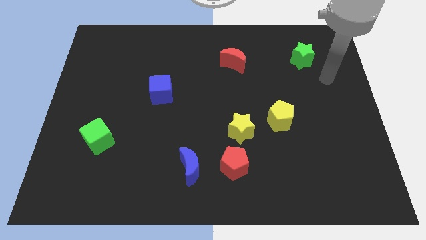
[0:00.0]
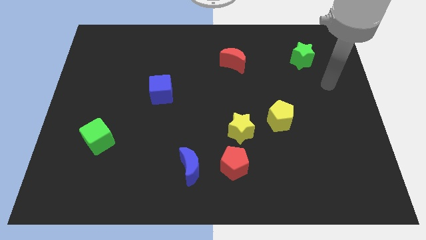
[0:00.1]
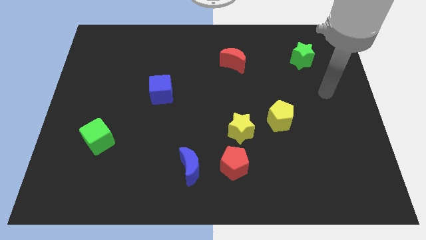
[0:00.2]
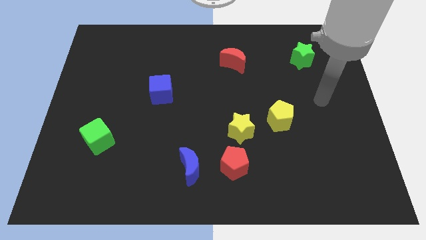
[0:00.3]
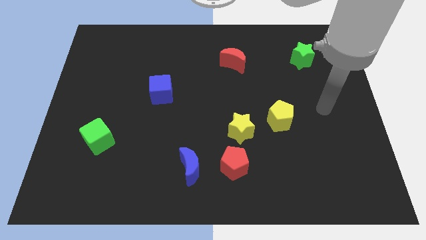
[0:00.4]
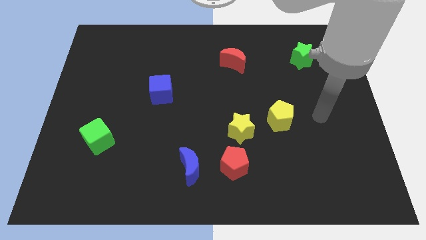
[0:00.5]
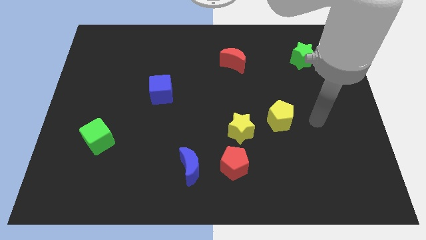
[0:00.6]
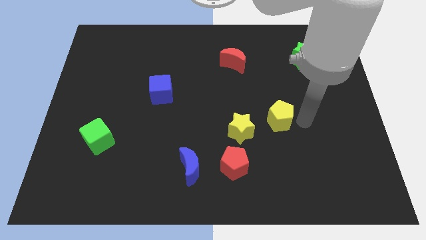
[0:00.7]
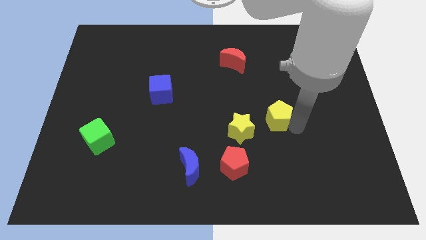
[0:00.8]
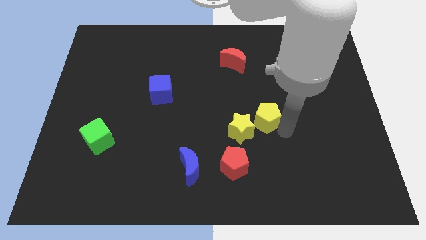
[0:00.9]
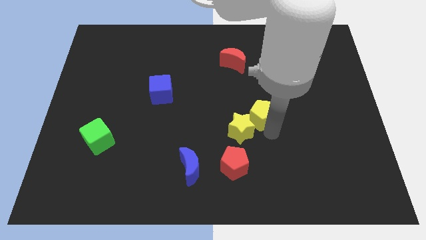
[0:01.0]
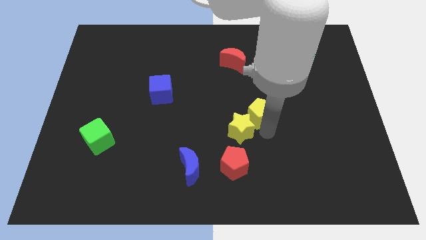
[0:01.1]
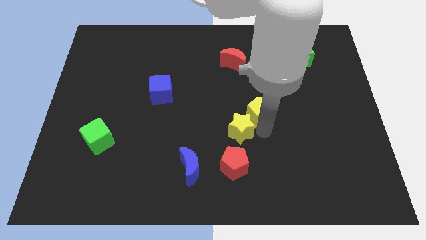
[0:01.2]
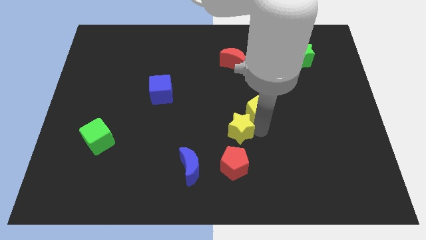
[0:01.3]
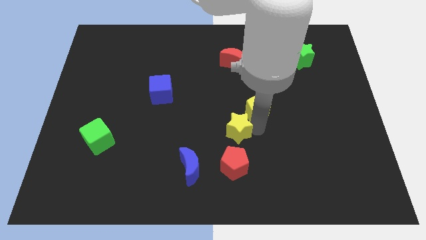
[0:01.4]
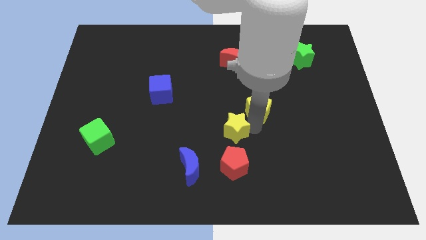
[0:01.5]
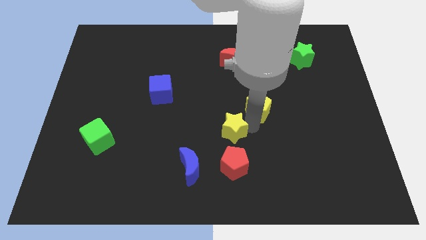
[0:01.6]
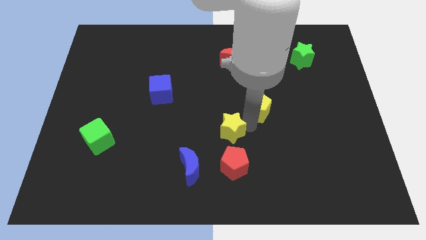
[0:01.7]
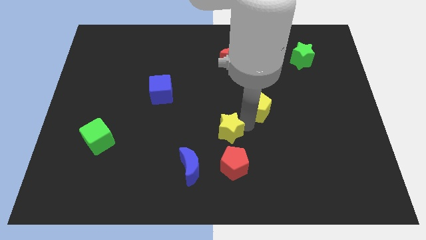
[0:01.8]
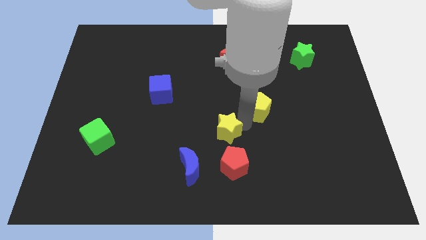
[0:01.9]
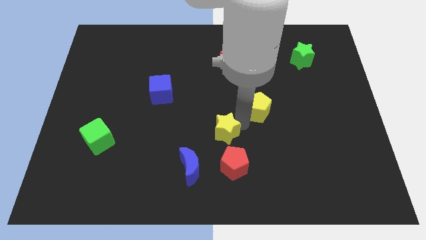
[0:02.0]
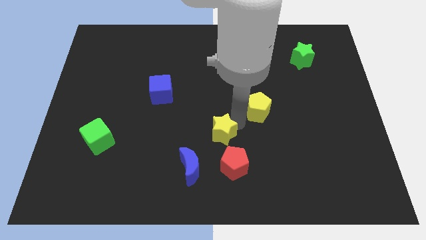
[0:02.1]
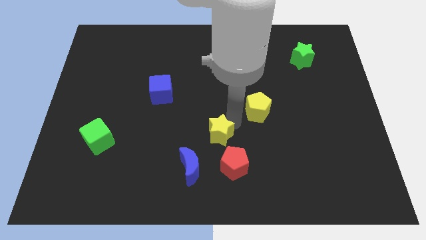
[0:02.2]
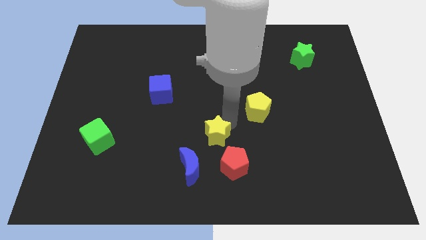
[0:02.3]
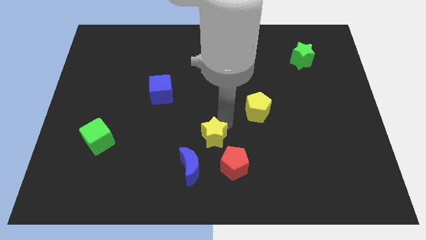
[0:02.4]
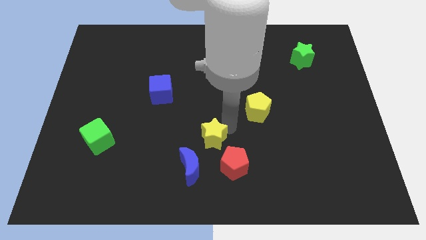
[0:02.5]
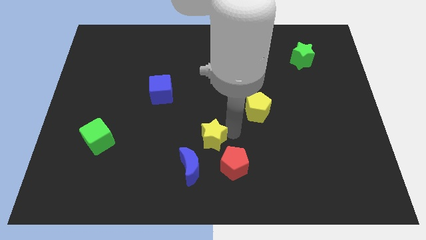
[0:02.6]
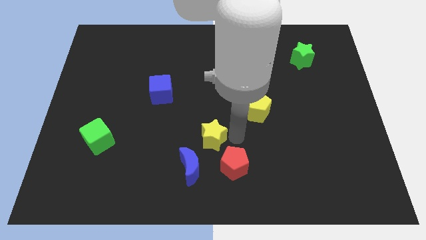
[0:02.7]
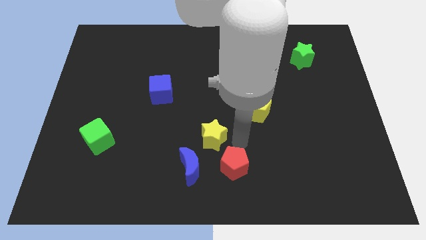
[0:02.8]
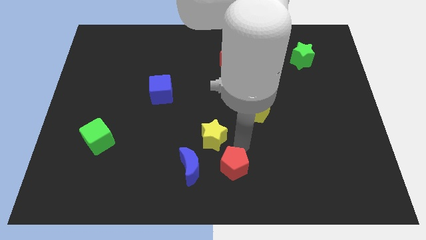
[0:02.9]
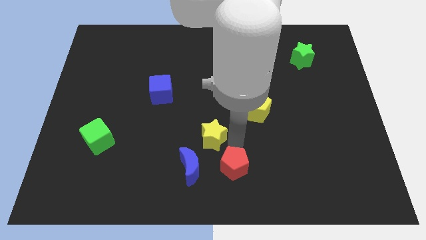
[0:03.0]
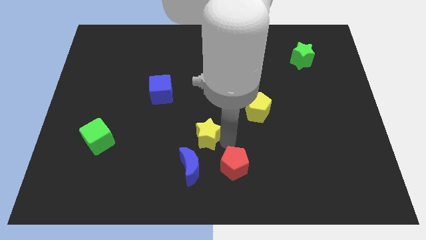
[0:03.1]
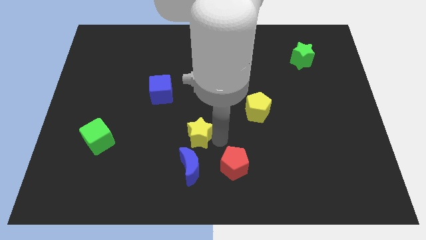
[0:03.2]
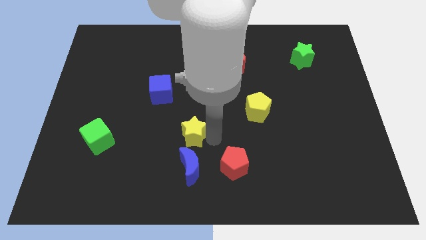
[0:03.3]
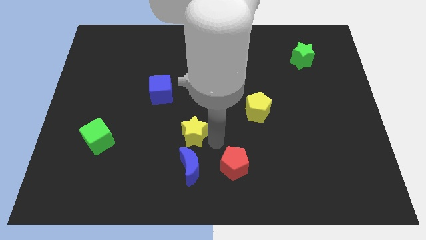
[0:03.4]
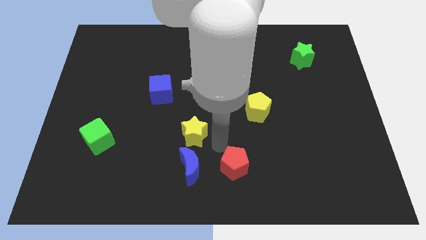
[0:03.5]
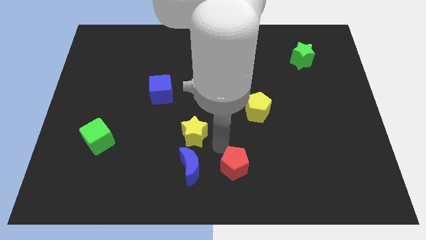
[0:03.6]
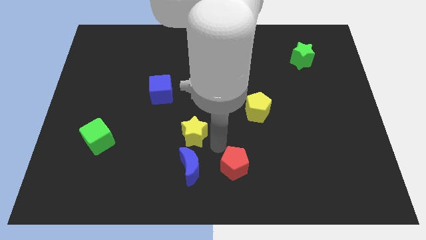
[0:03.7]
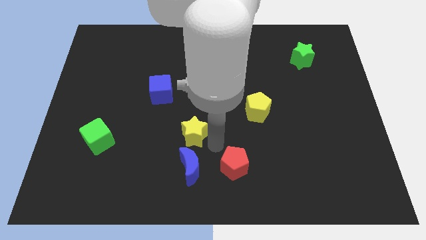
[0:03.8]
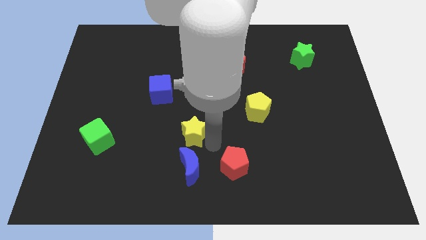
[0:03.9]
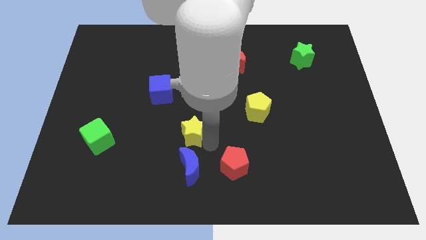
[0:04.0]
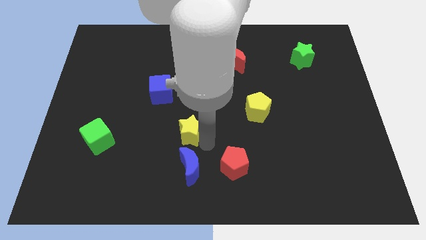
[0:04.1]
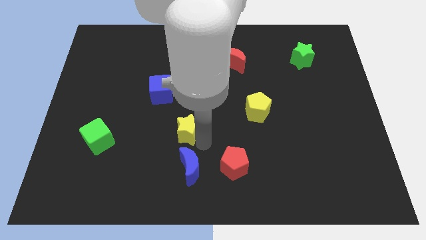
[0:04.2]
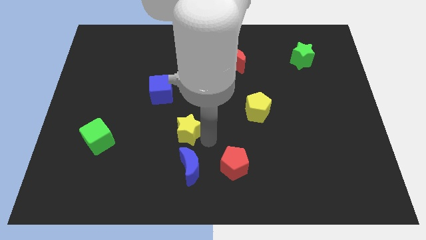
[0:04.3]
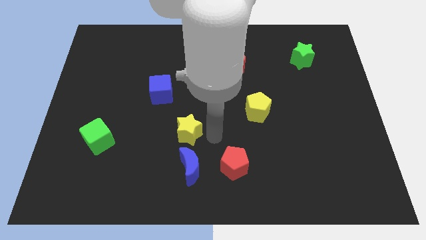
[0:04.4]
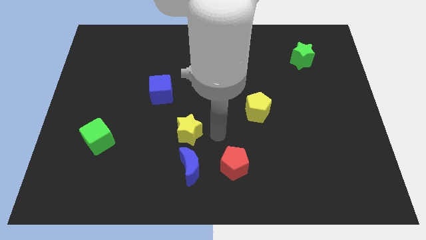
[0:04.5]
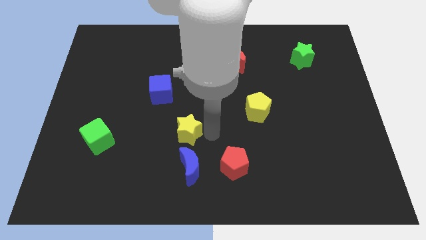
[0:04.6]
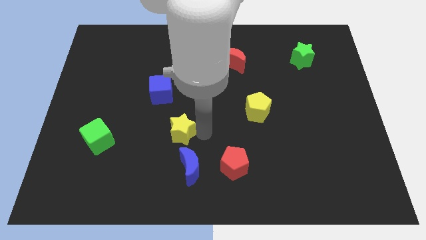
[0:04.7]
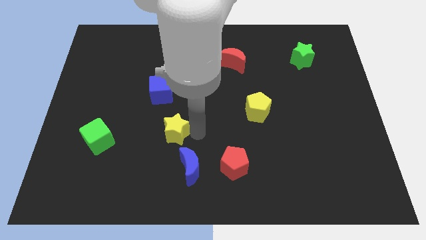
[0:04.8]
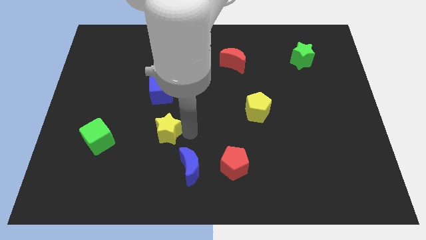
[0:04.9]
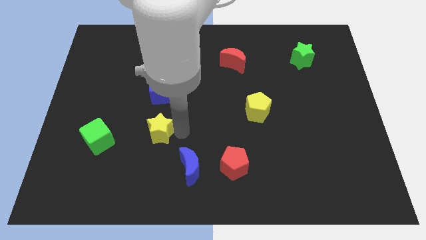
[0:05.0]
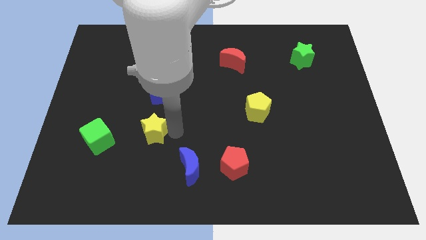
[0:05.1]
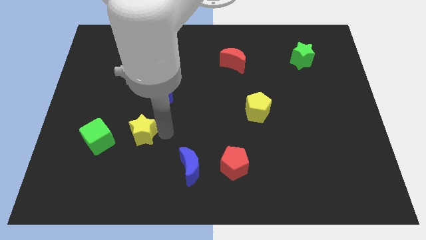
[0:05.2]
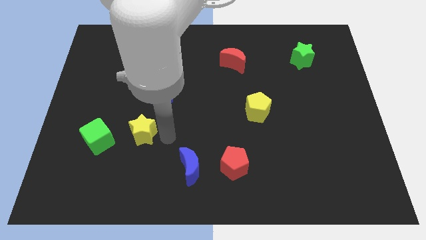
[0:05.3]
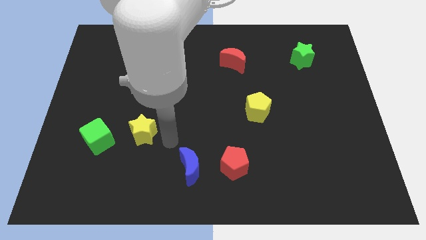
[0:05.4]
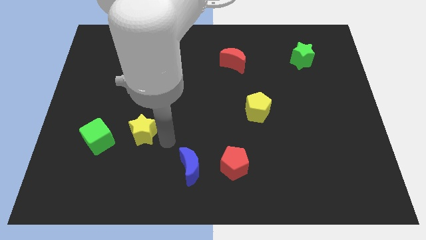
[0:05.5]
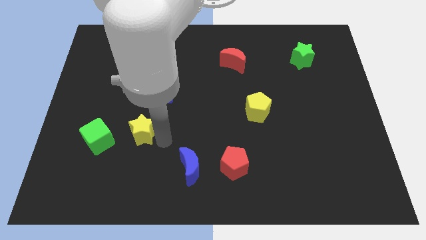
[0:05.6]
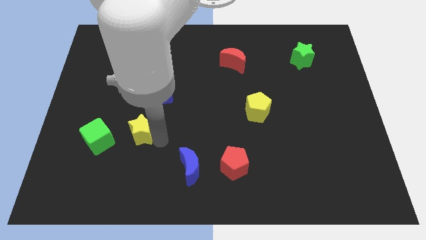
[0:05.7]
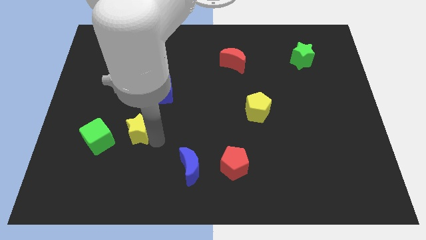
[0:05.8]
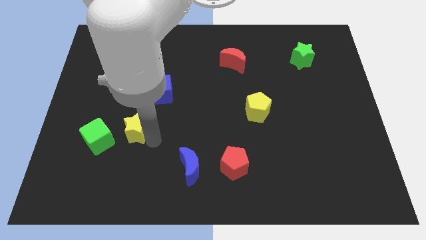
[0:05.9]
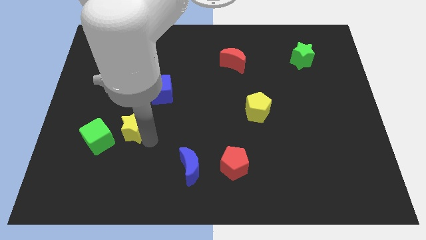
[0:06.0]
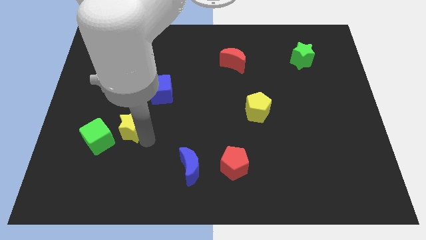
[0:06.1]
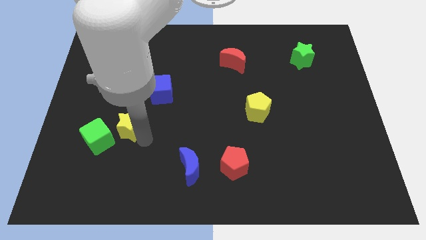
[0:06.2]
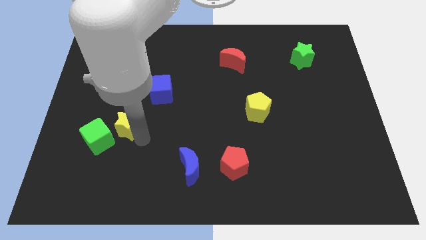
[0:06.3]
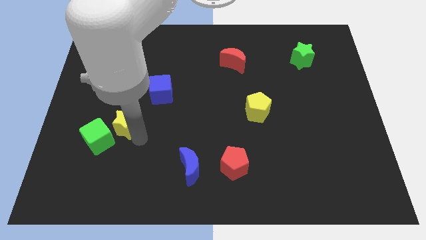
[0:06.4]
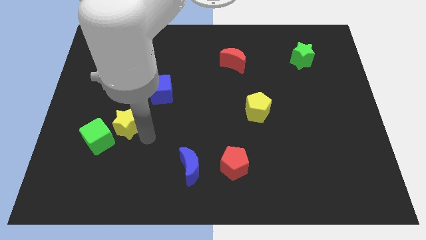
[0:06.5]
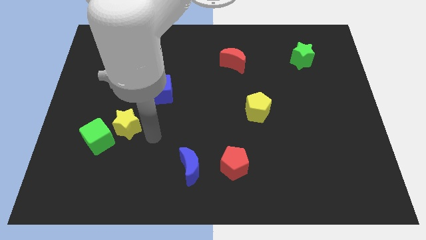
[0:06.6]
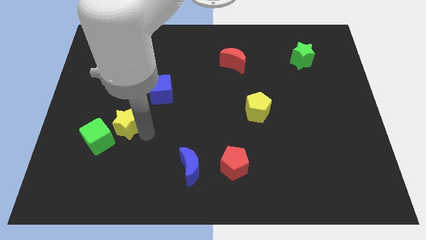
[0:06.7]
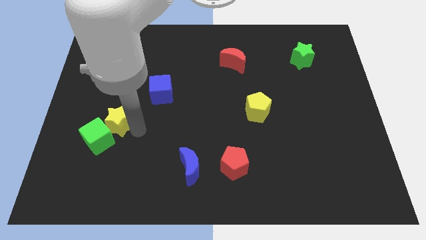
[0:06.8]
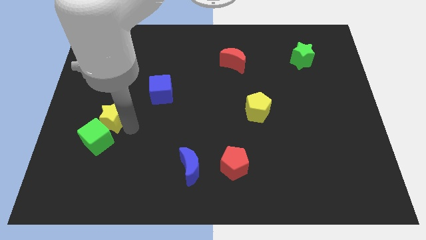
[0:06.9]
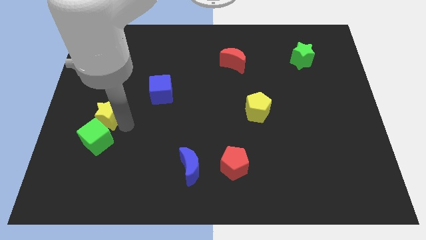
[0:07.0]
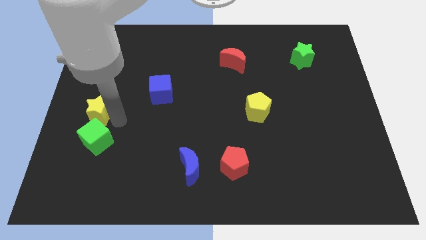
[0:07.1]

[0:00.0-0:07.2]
push the yellow star to the center left

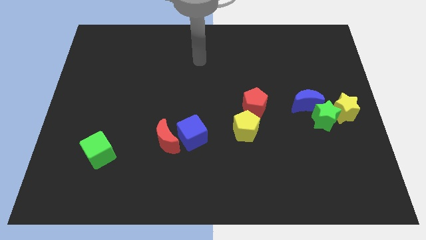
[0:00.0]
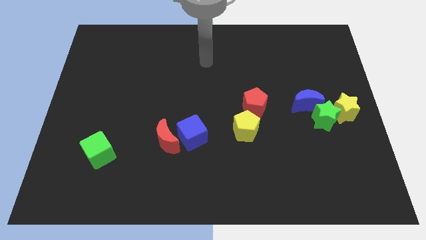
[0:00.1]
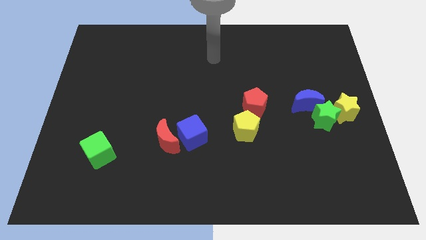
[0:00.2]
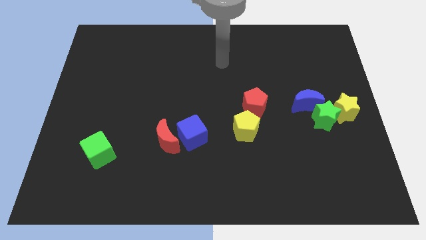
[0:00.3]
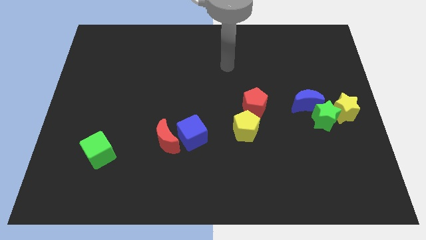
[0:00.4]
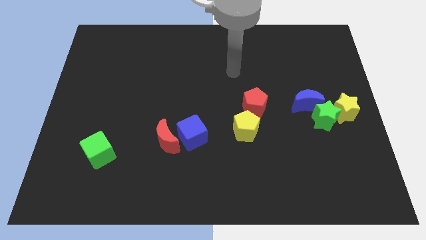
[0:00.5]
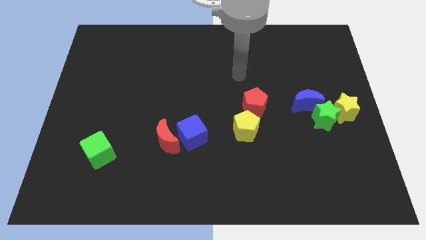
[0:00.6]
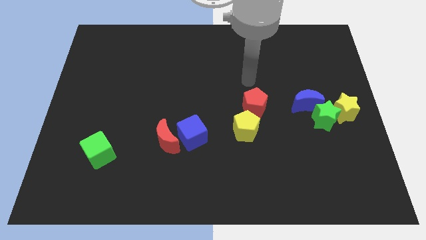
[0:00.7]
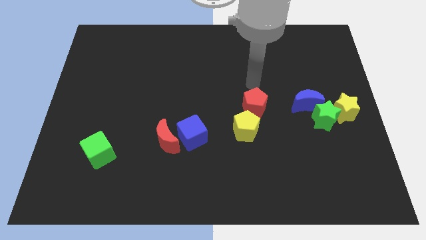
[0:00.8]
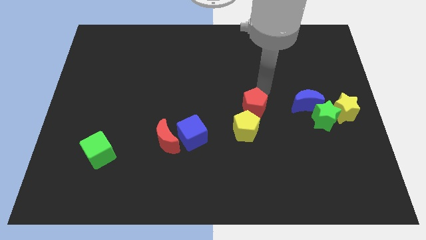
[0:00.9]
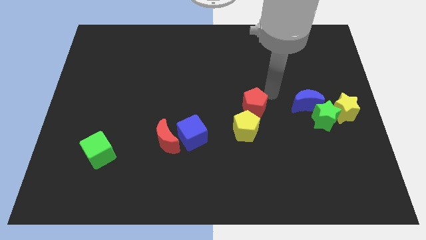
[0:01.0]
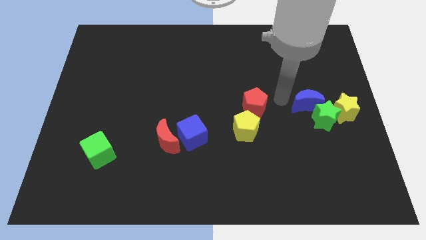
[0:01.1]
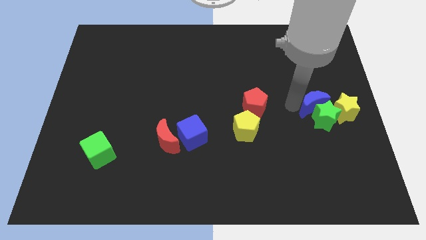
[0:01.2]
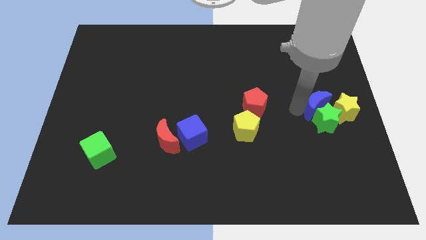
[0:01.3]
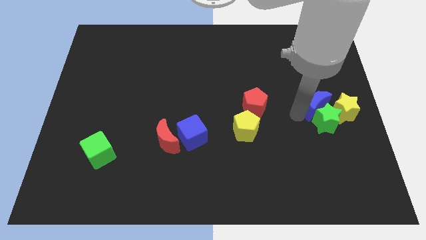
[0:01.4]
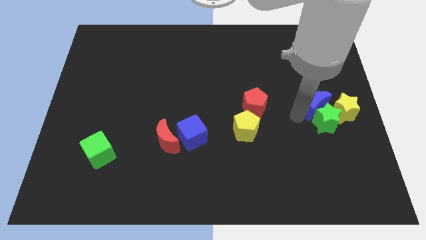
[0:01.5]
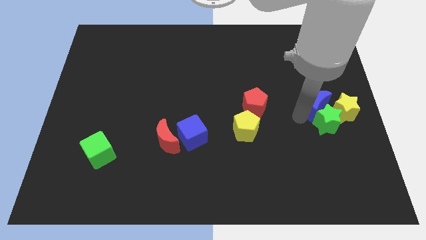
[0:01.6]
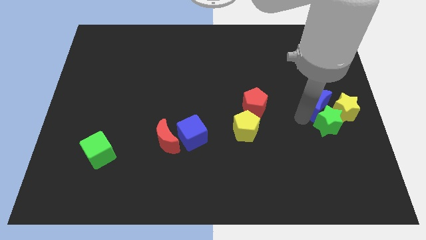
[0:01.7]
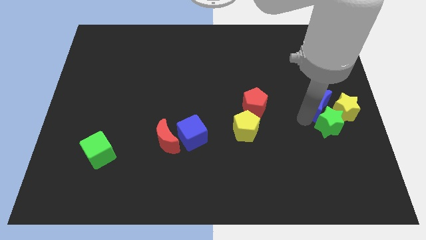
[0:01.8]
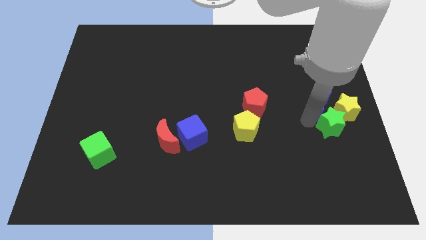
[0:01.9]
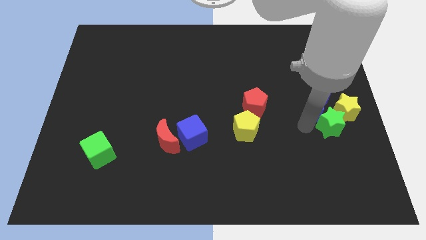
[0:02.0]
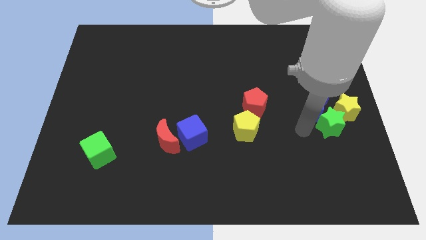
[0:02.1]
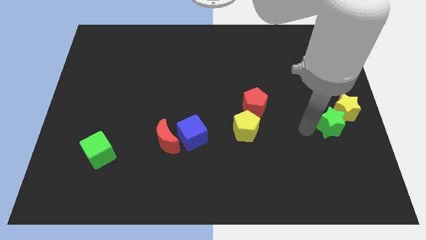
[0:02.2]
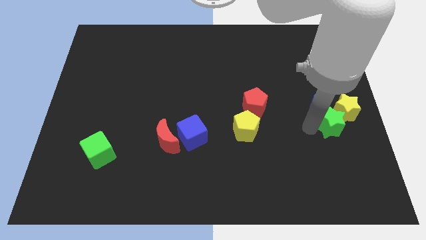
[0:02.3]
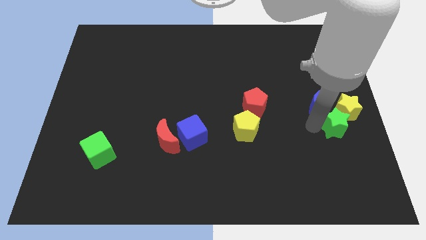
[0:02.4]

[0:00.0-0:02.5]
push the green star to the center right
